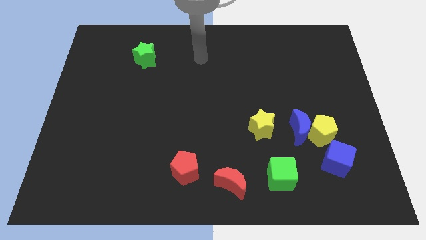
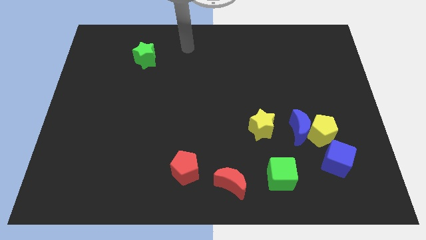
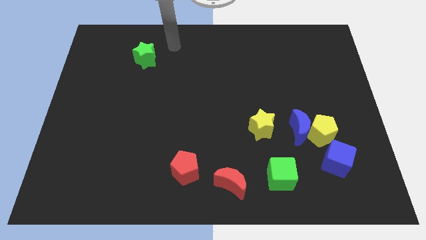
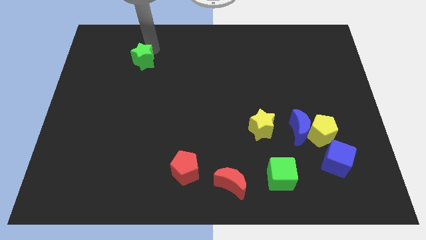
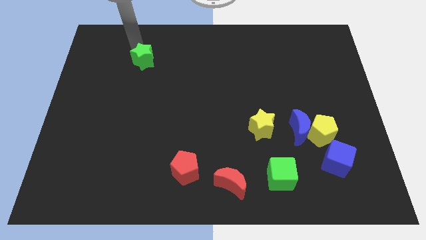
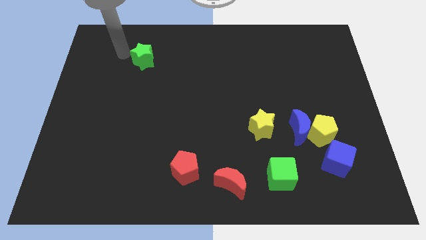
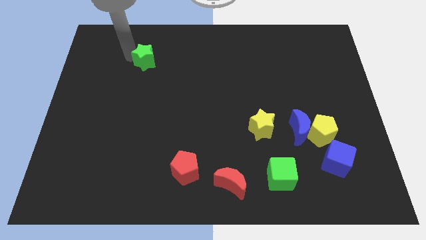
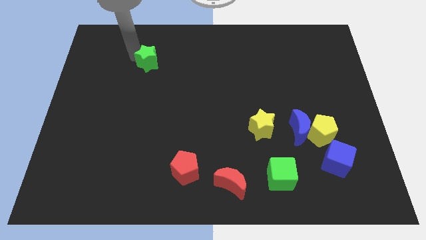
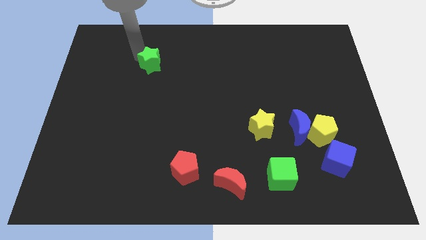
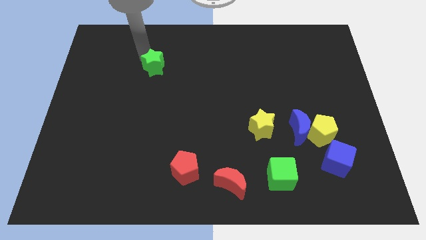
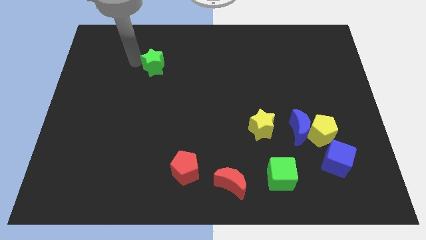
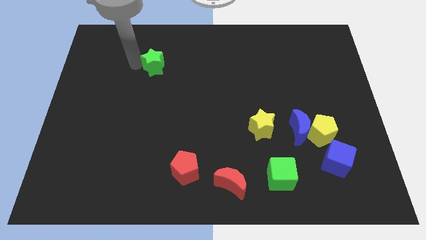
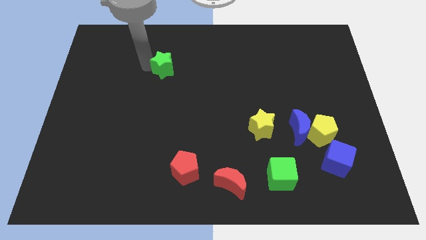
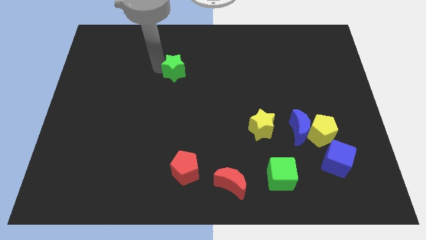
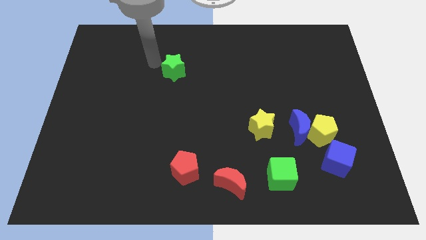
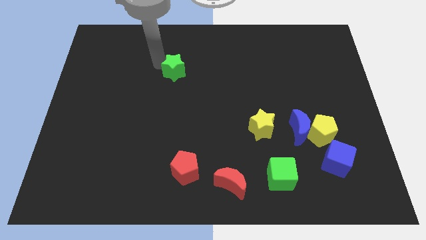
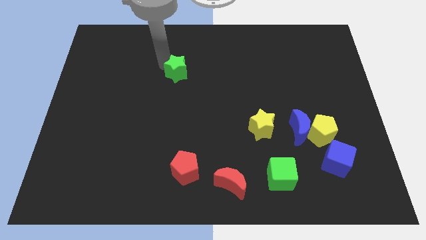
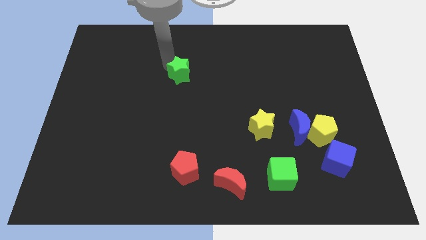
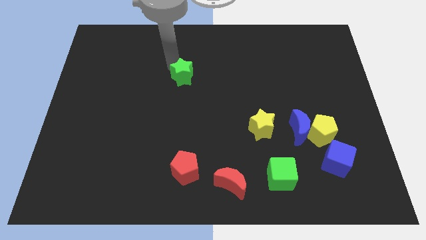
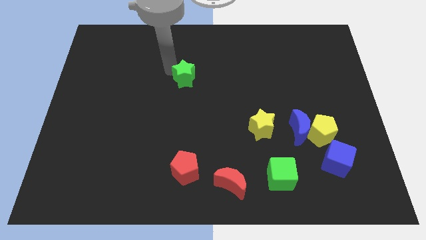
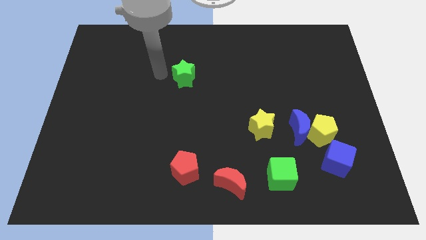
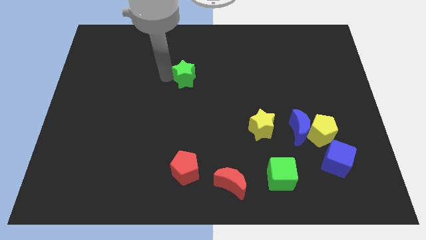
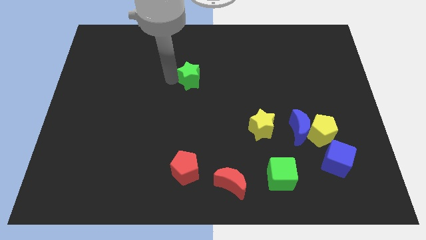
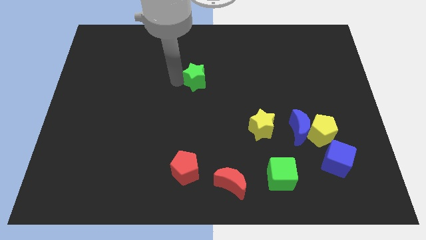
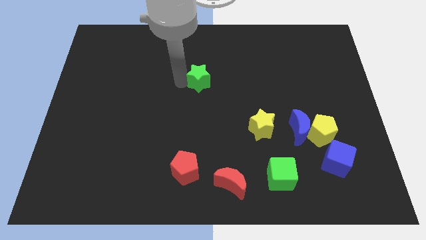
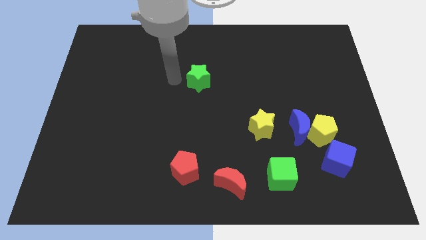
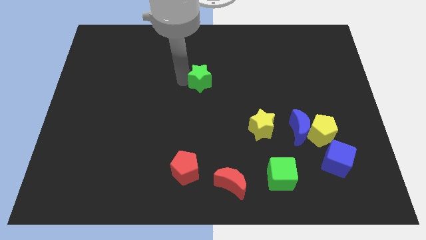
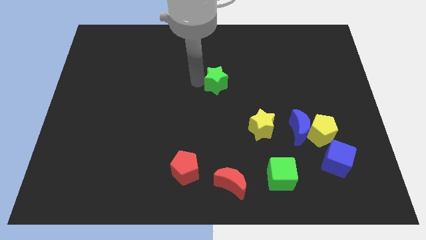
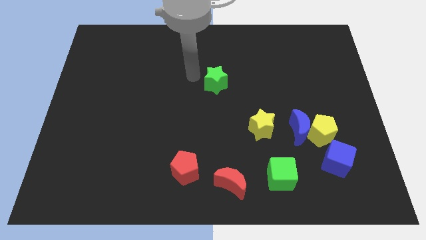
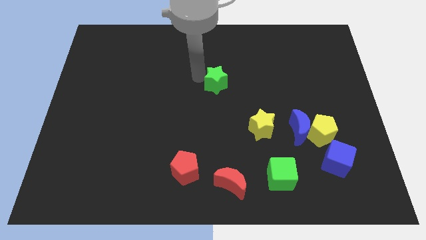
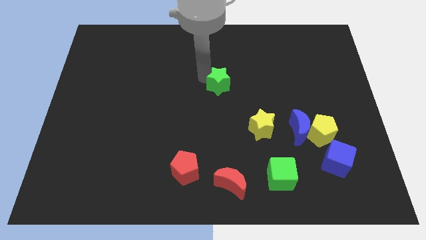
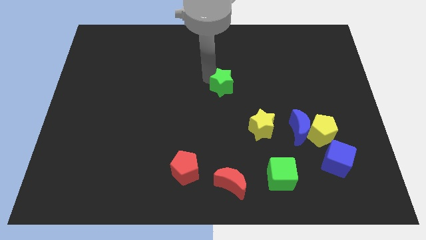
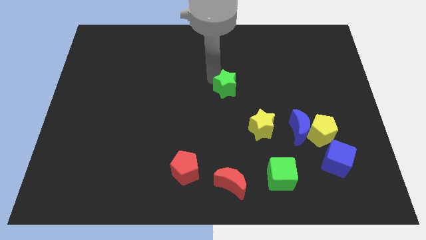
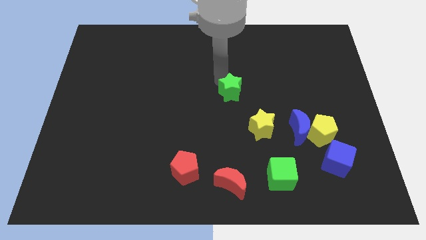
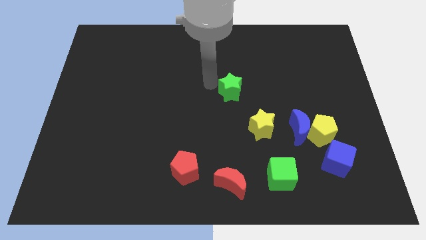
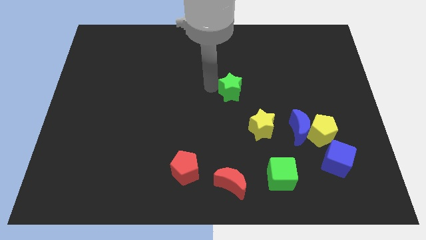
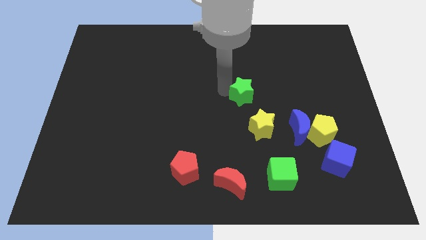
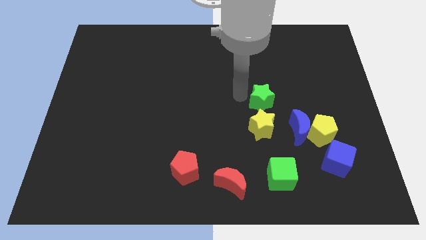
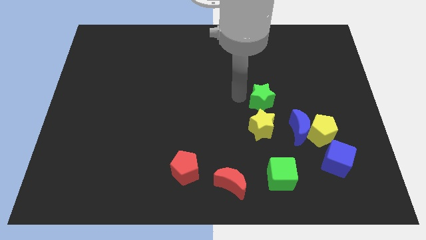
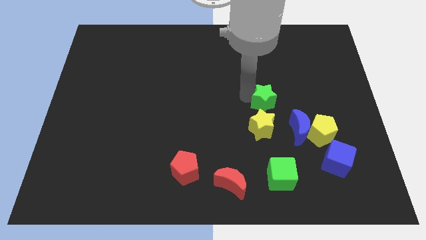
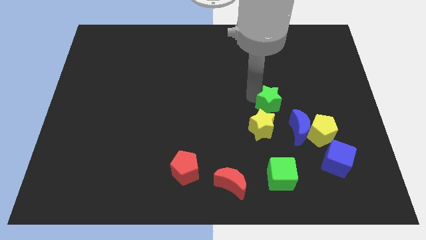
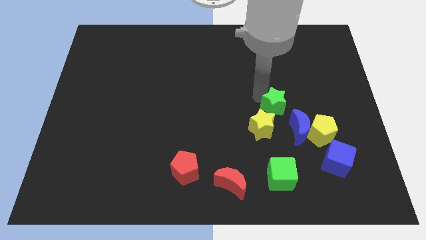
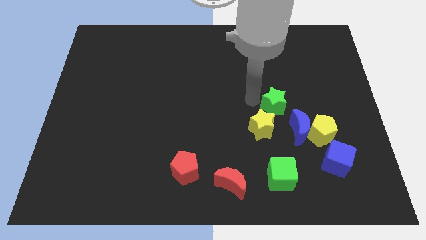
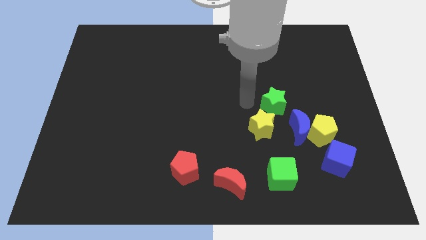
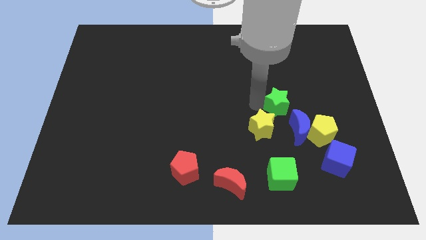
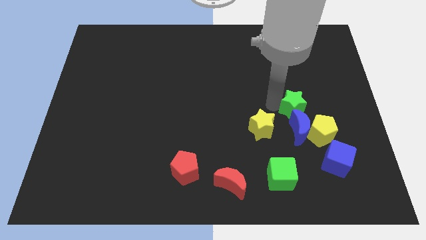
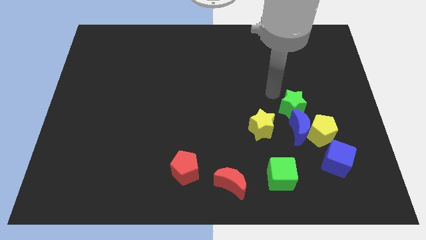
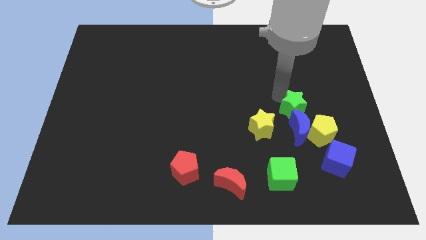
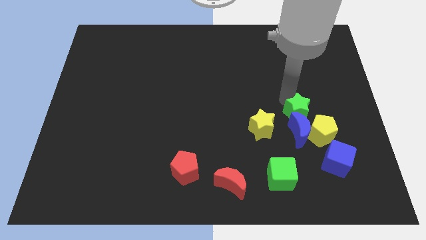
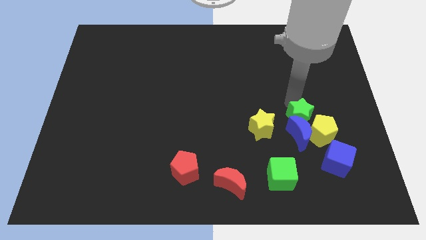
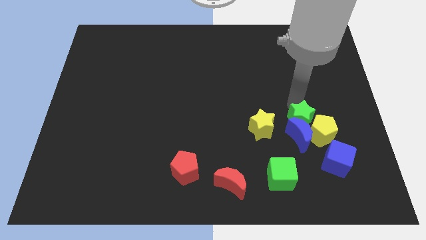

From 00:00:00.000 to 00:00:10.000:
put the green star to the yellow pentagon

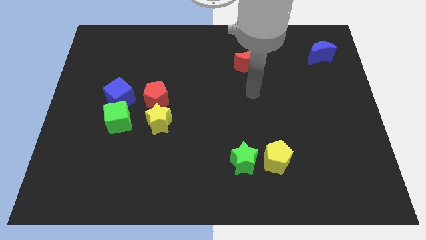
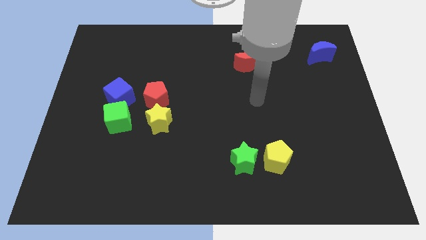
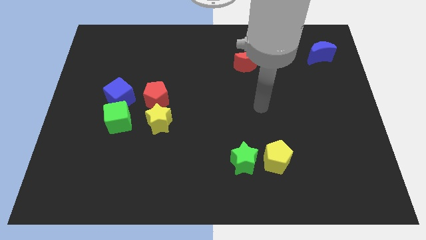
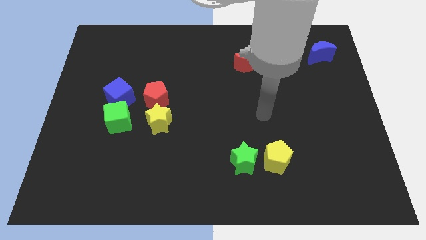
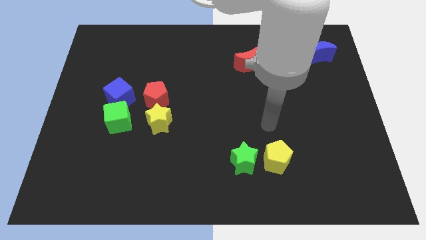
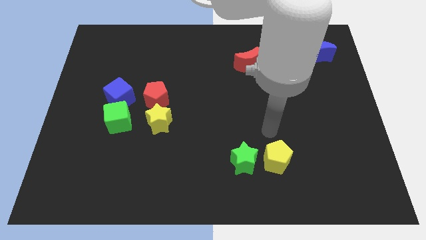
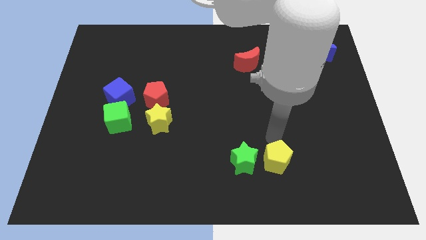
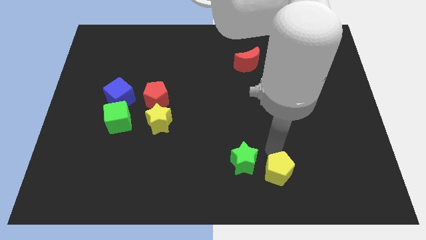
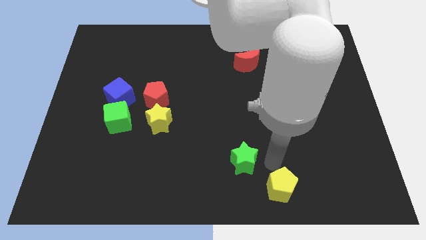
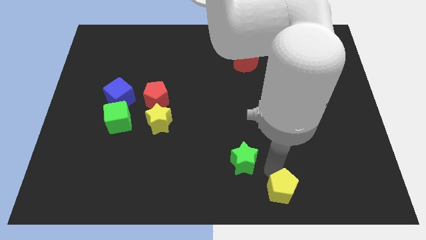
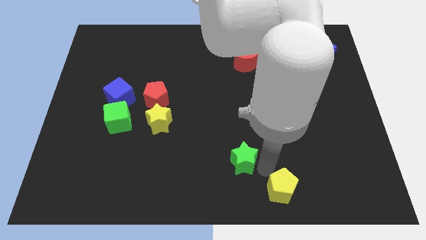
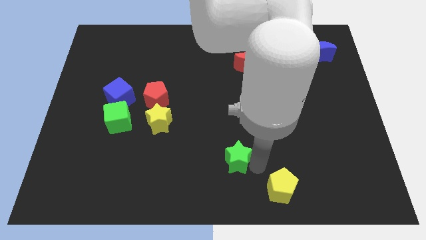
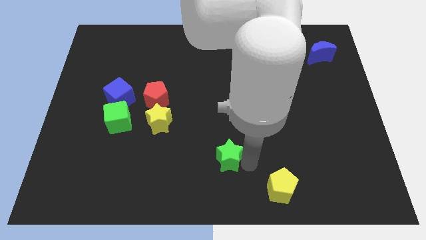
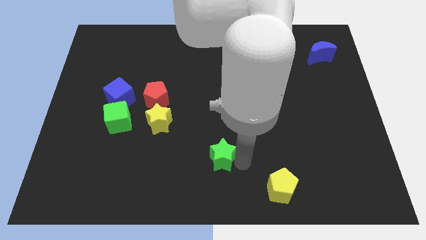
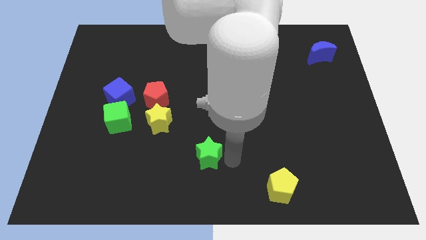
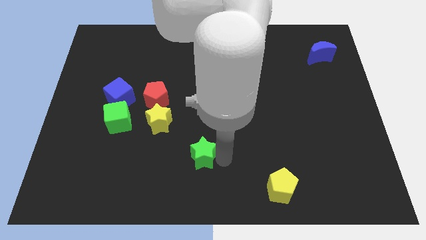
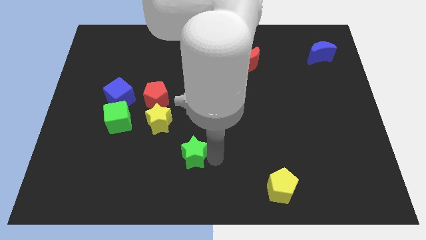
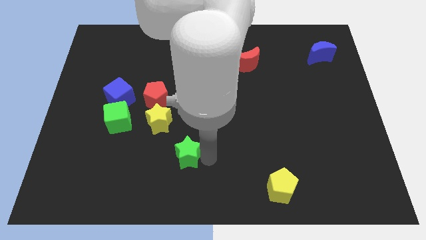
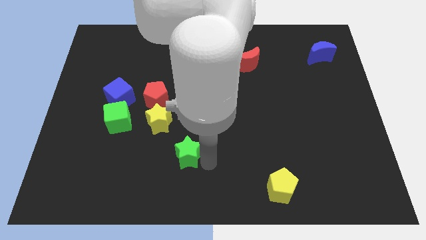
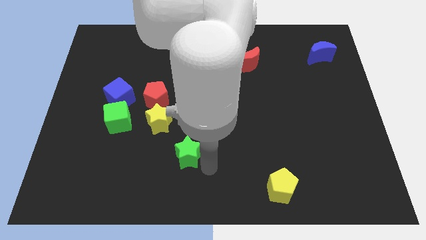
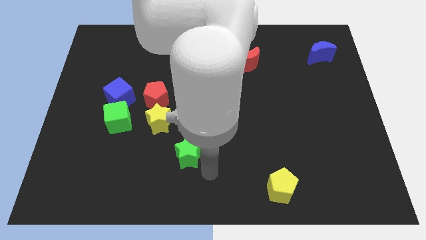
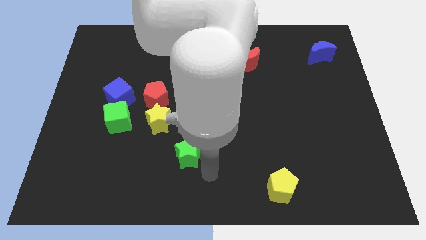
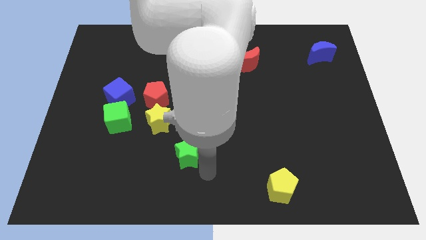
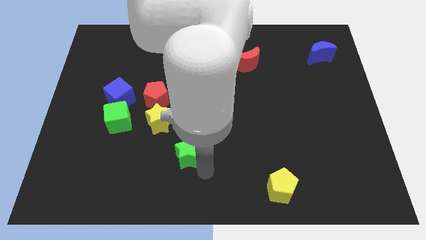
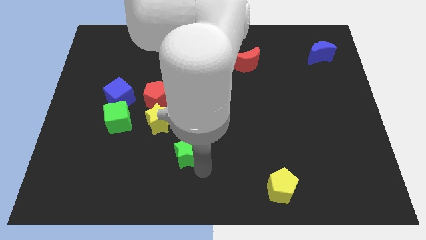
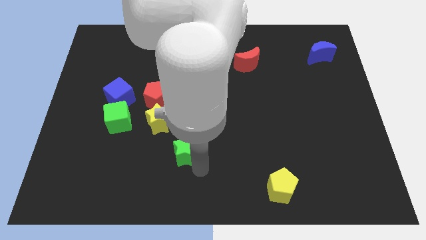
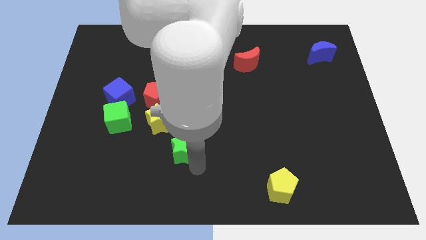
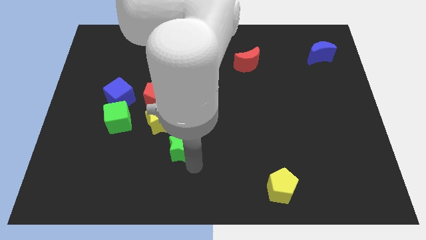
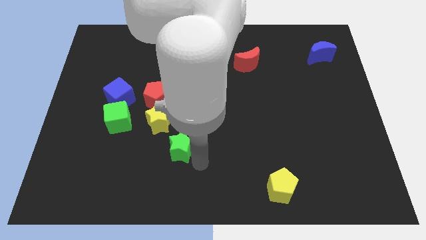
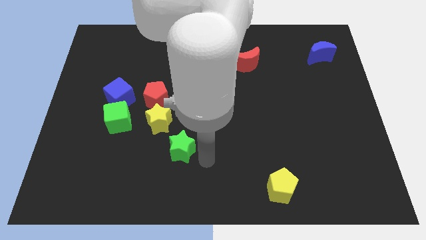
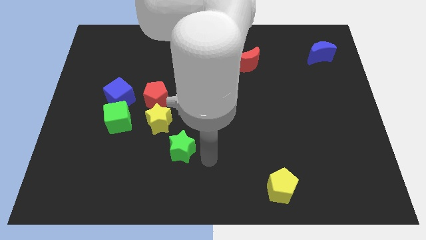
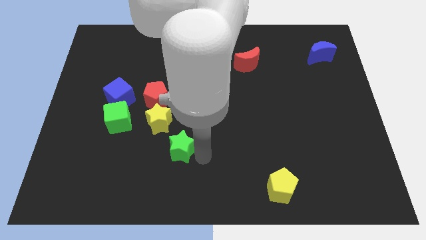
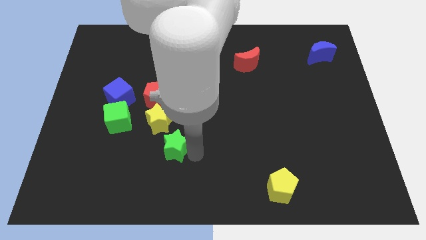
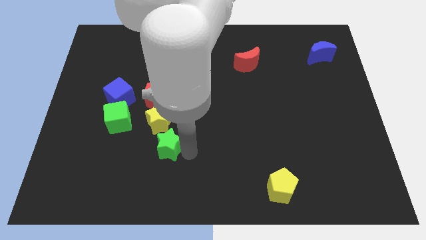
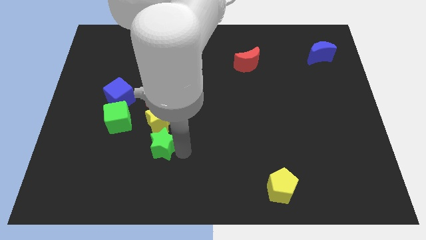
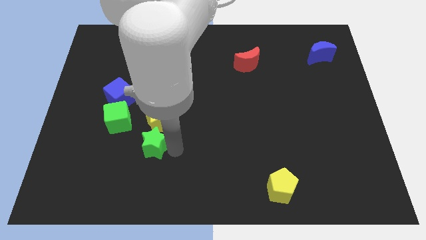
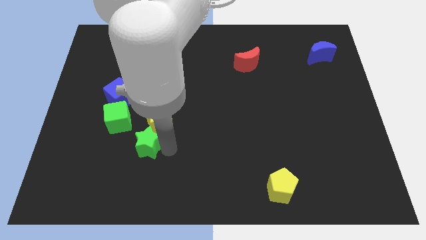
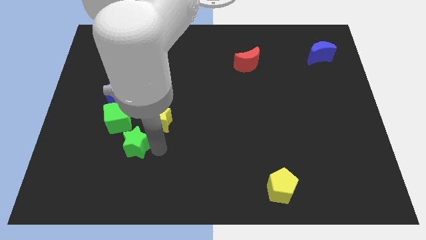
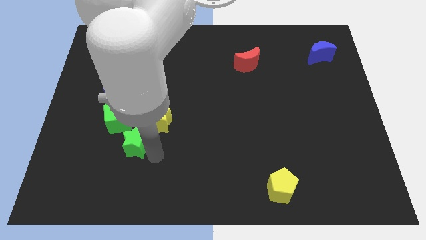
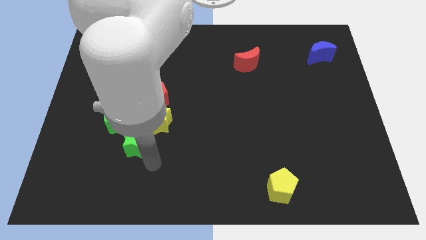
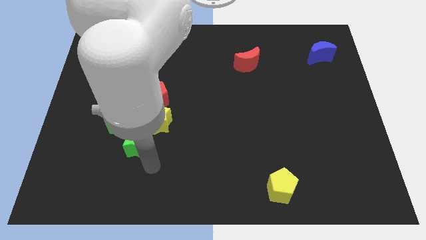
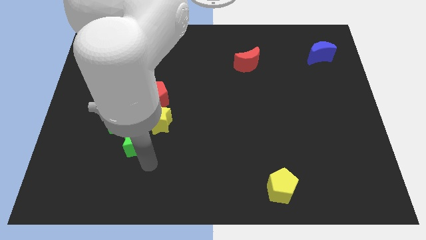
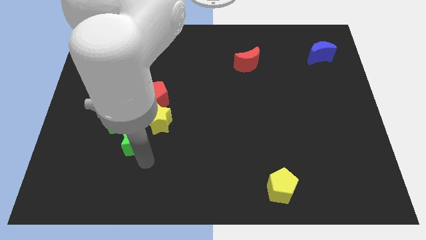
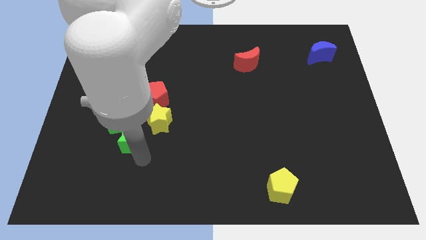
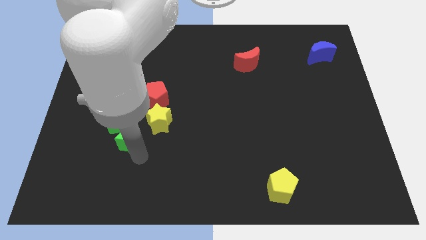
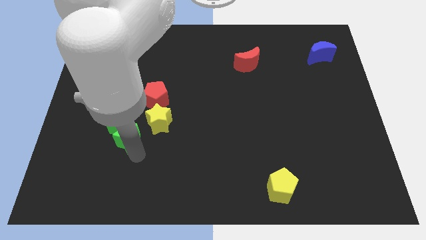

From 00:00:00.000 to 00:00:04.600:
slide the green star close to the green cube
